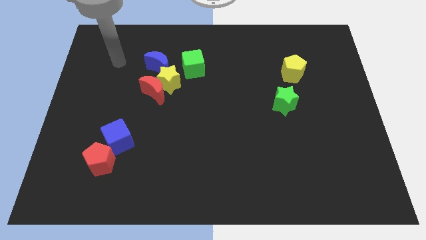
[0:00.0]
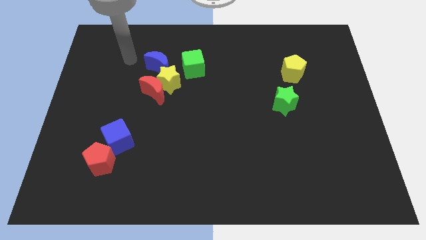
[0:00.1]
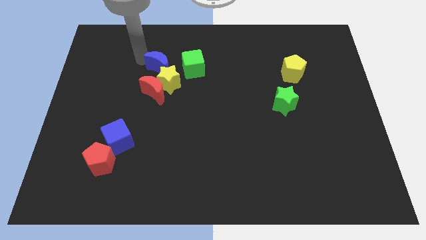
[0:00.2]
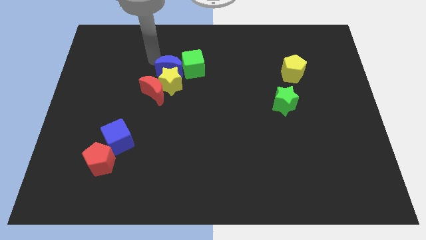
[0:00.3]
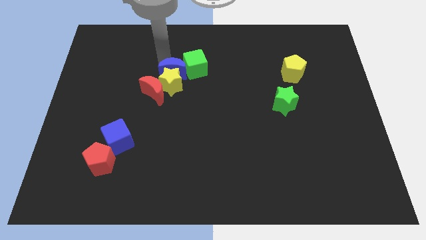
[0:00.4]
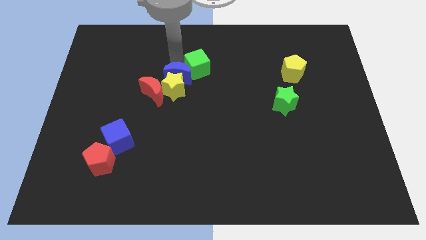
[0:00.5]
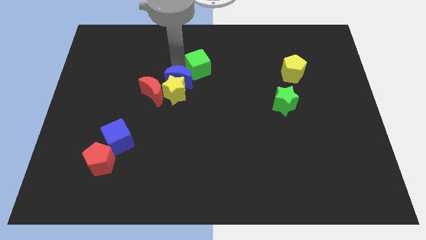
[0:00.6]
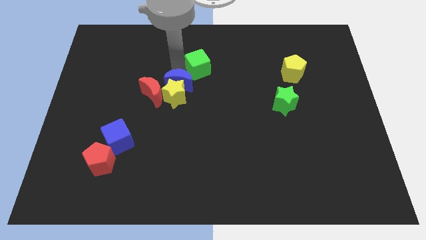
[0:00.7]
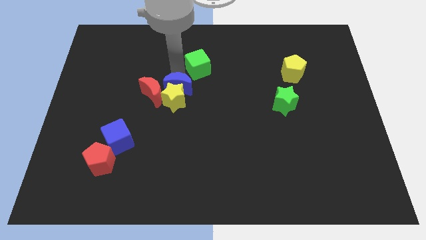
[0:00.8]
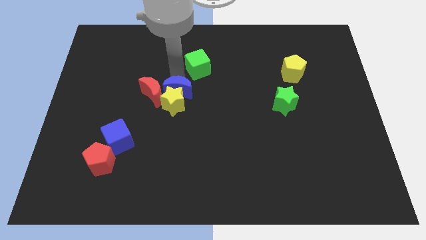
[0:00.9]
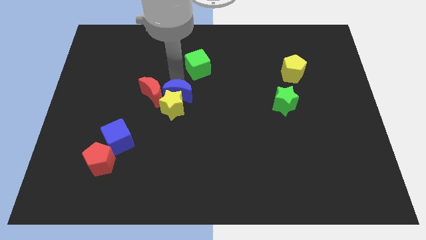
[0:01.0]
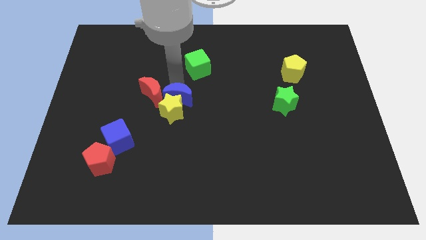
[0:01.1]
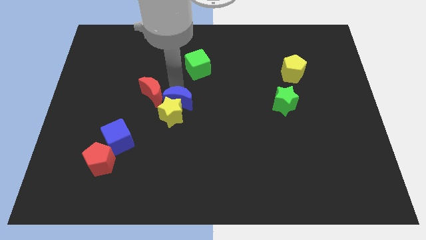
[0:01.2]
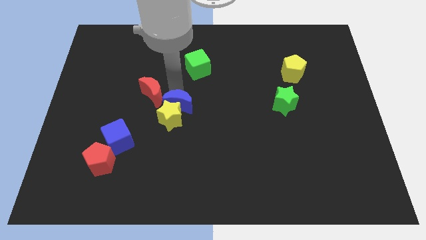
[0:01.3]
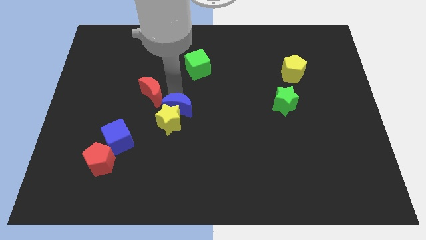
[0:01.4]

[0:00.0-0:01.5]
pull the yellow star apart from the clump

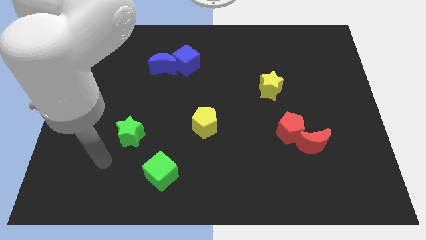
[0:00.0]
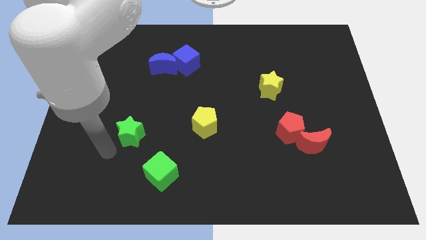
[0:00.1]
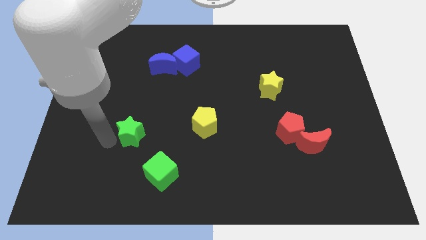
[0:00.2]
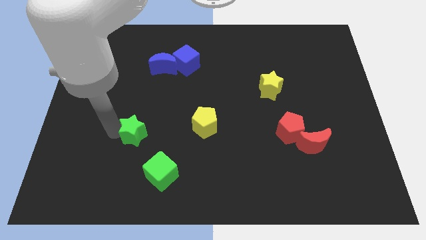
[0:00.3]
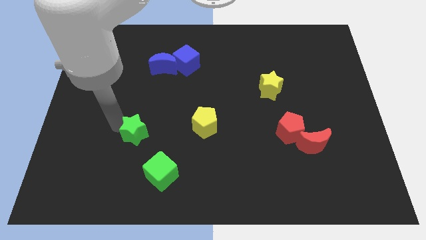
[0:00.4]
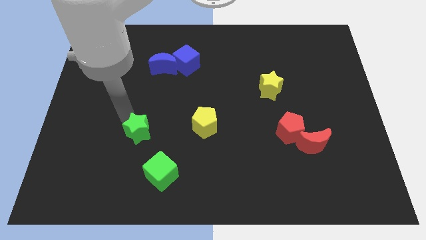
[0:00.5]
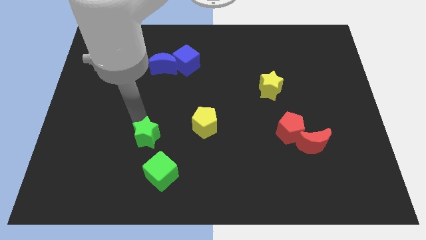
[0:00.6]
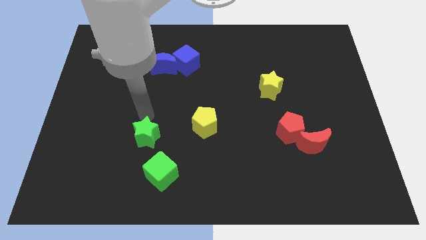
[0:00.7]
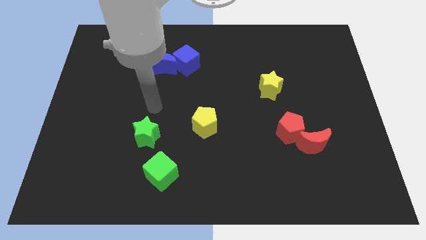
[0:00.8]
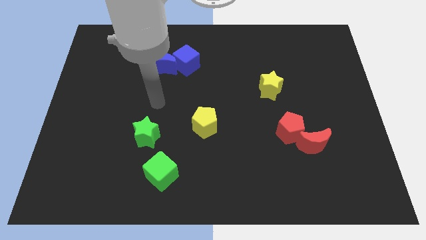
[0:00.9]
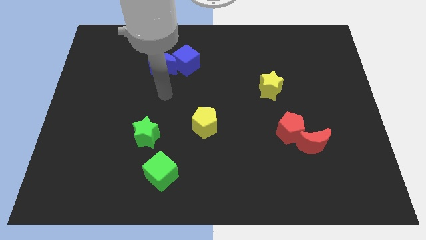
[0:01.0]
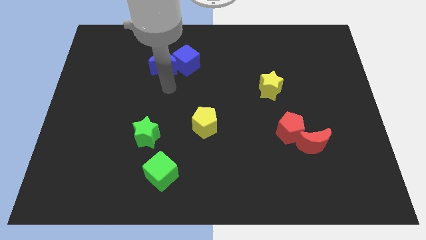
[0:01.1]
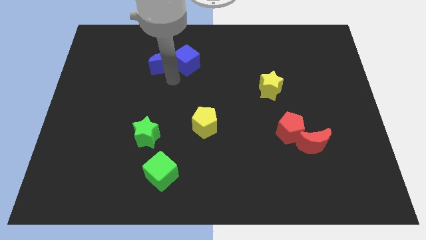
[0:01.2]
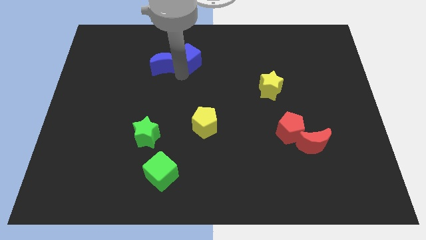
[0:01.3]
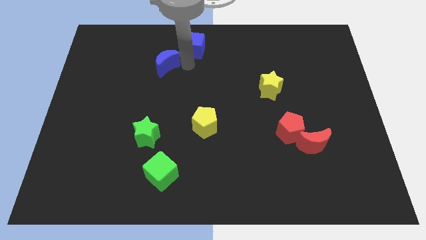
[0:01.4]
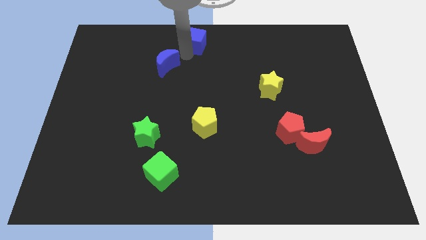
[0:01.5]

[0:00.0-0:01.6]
separate the blue moon from the blue cube

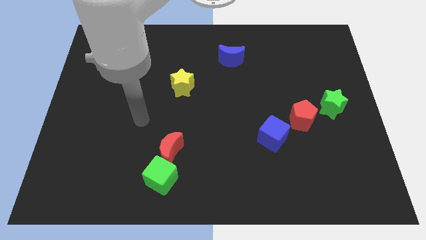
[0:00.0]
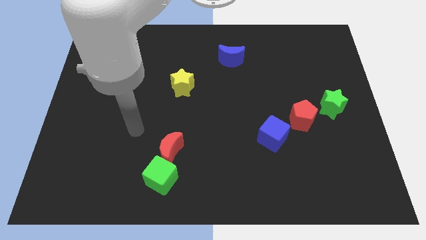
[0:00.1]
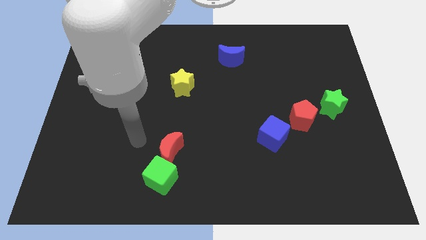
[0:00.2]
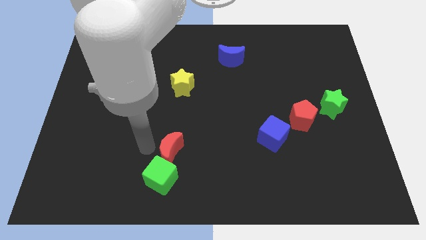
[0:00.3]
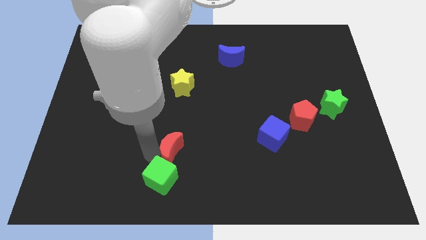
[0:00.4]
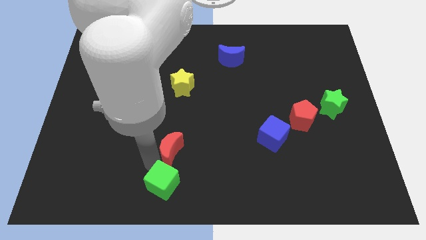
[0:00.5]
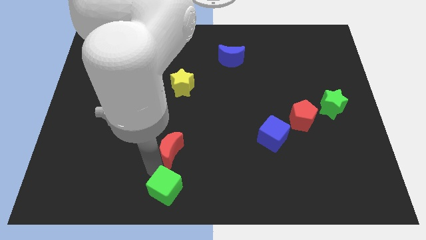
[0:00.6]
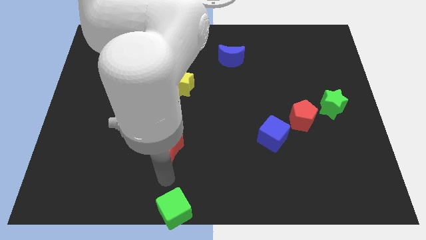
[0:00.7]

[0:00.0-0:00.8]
pull the red moon apart from the green cube

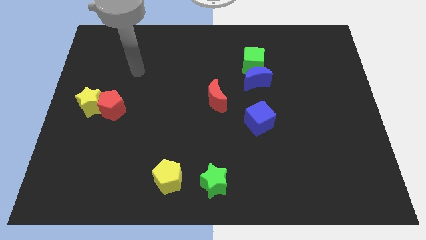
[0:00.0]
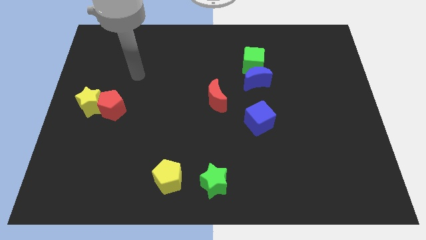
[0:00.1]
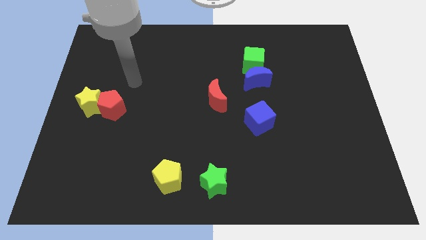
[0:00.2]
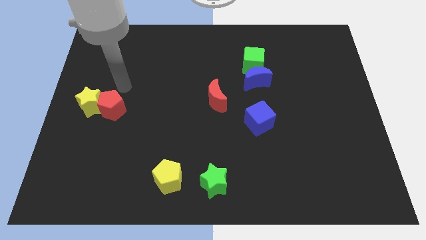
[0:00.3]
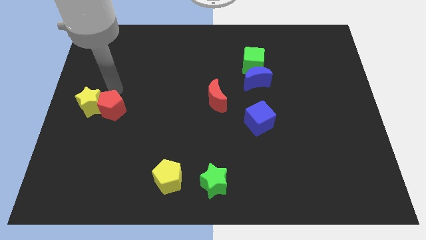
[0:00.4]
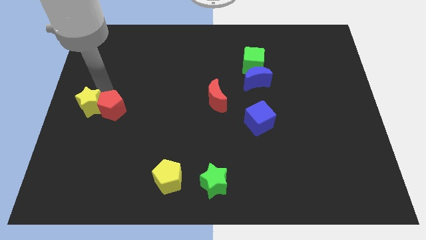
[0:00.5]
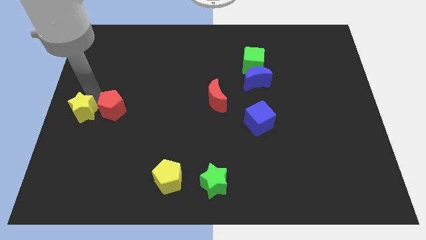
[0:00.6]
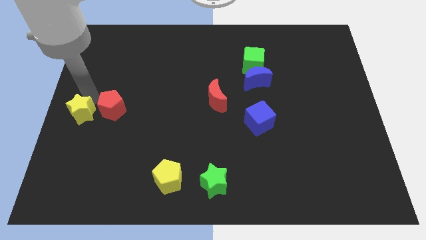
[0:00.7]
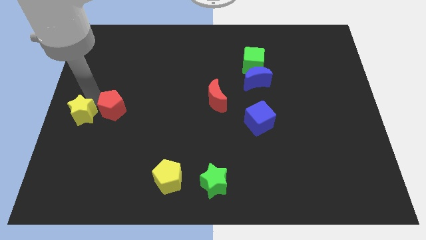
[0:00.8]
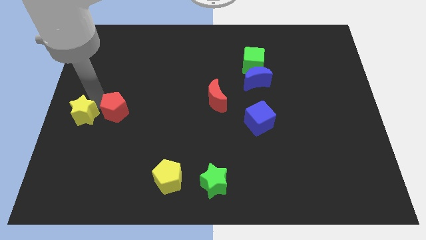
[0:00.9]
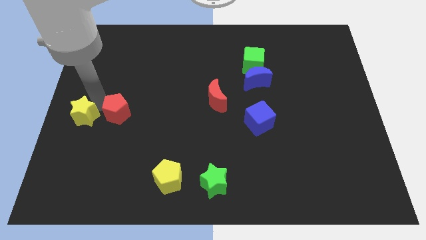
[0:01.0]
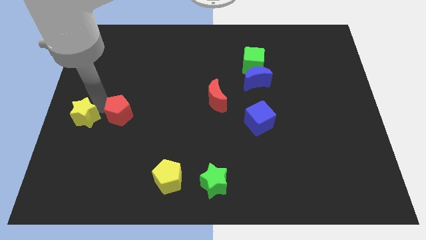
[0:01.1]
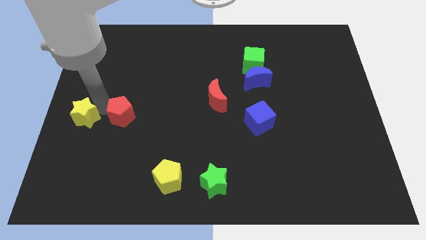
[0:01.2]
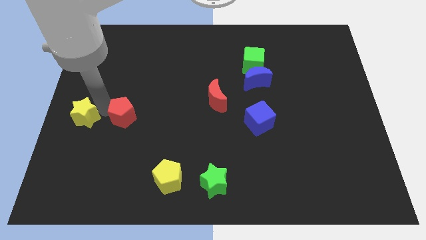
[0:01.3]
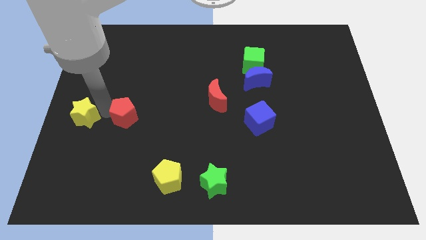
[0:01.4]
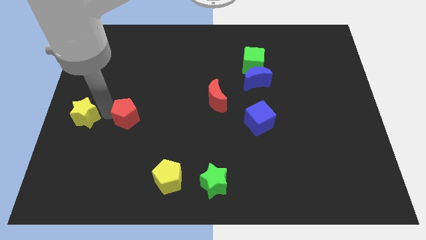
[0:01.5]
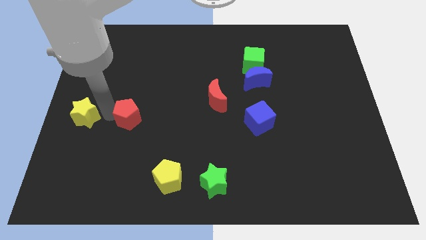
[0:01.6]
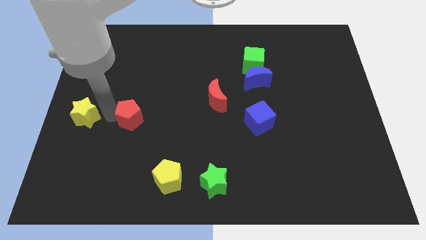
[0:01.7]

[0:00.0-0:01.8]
move the red pentagon away from the yellow star

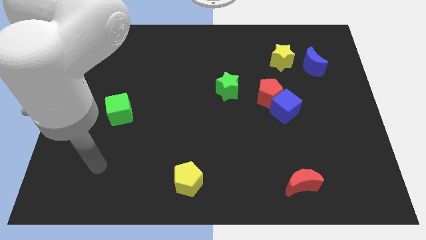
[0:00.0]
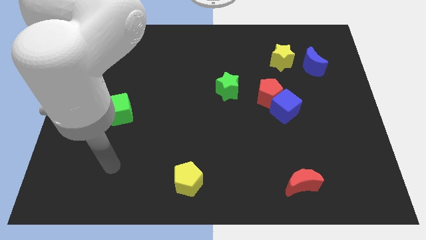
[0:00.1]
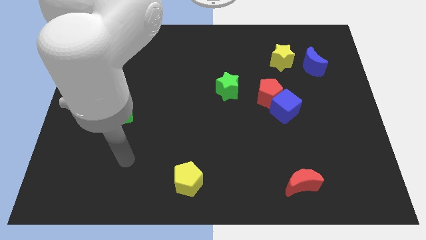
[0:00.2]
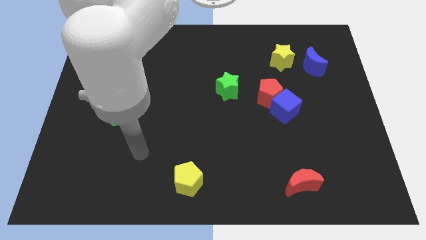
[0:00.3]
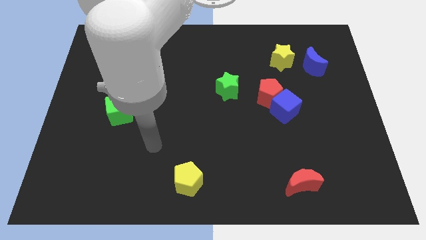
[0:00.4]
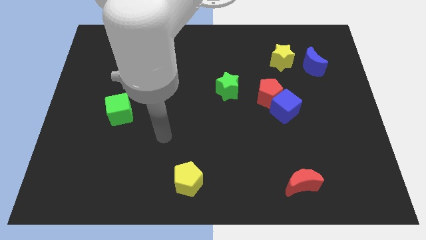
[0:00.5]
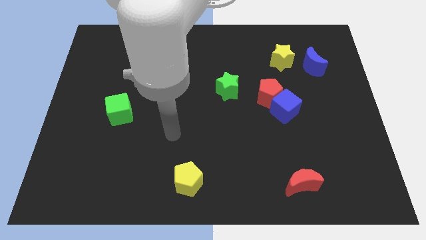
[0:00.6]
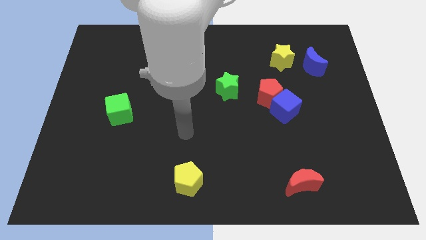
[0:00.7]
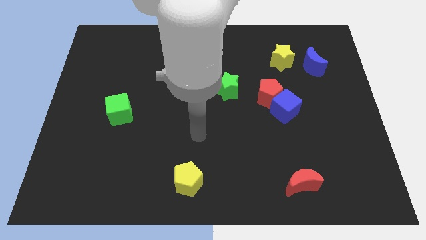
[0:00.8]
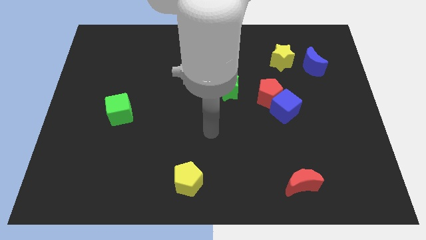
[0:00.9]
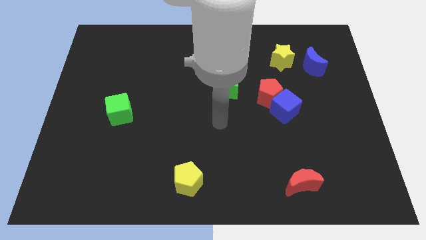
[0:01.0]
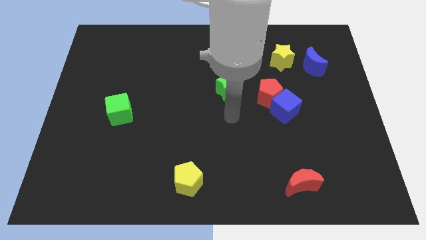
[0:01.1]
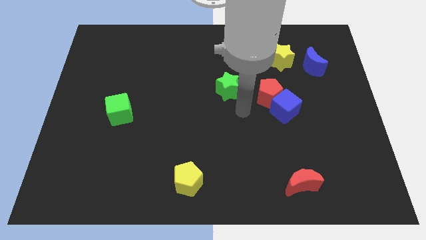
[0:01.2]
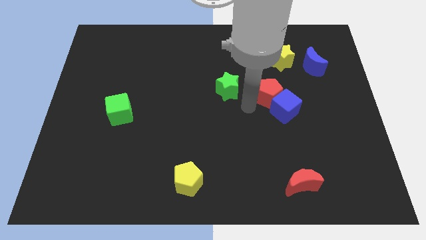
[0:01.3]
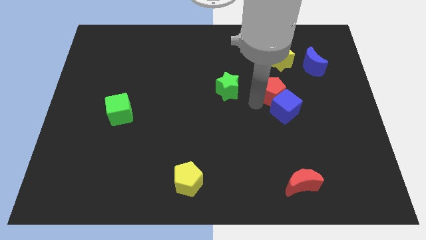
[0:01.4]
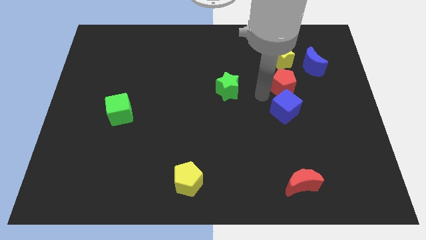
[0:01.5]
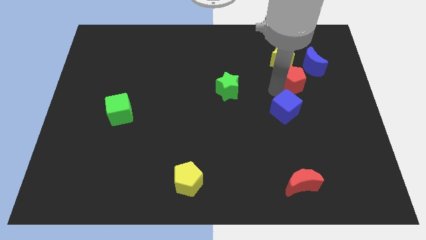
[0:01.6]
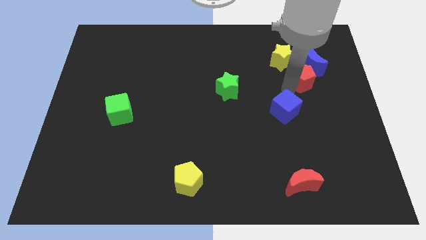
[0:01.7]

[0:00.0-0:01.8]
move the blue cube away from the red pentagon

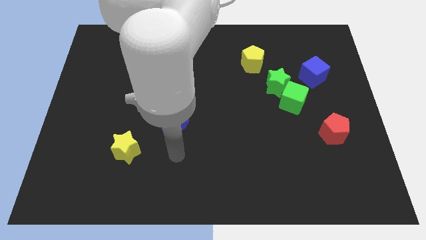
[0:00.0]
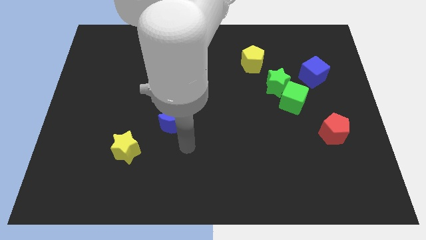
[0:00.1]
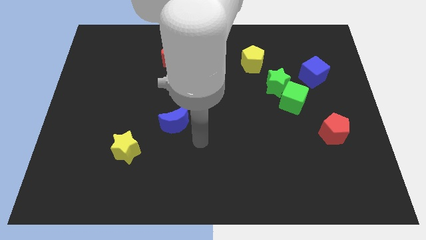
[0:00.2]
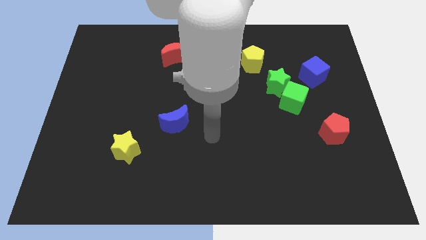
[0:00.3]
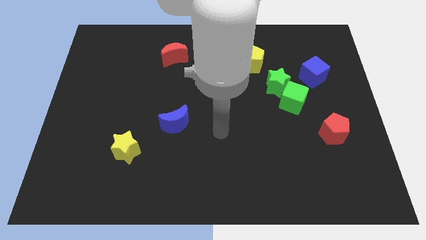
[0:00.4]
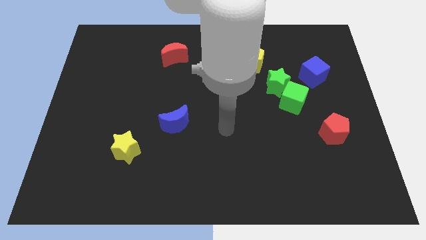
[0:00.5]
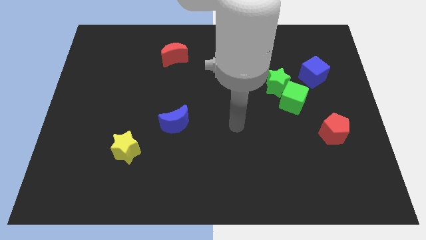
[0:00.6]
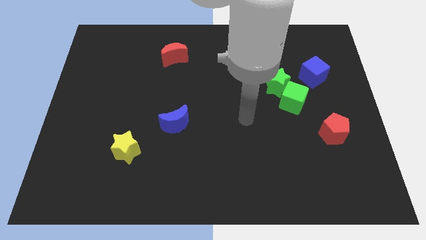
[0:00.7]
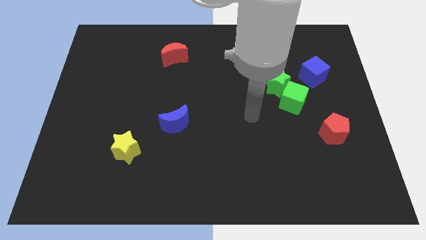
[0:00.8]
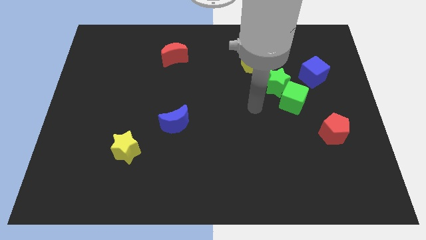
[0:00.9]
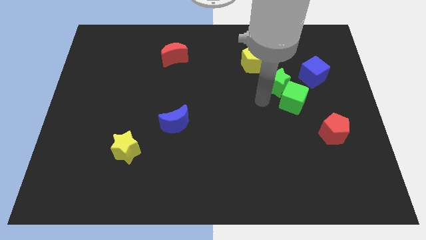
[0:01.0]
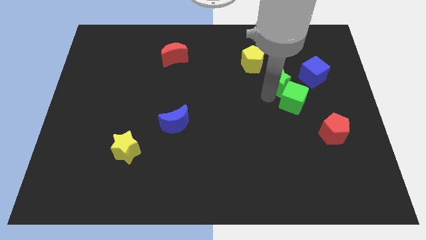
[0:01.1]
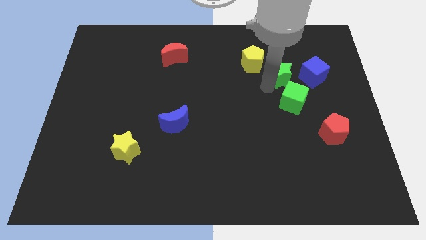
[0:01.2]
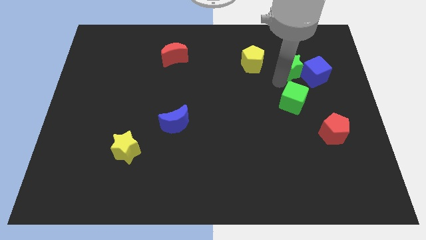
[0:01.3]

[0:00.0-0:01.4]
pull the green cube apart from the green star

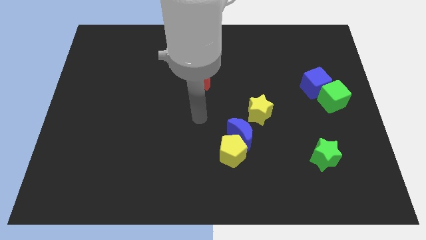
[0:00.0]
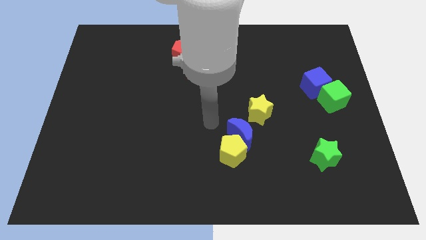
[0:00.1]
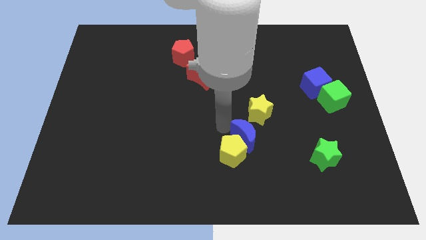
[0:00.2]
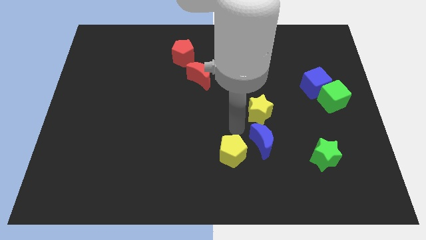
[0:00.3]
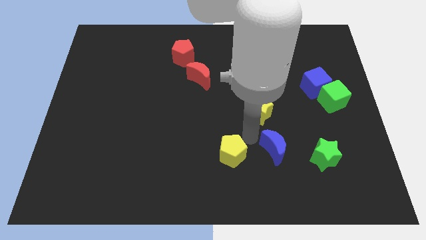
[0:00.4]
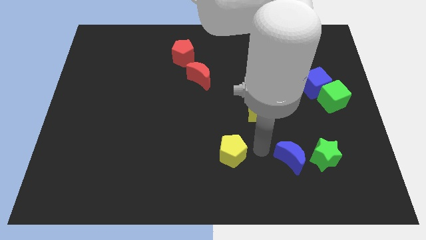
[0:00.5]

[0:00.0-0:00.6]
move the yellow pentagon away from the blue moon

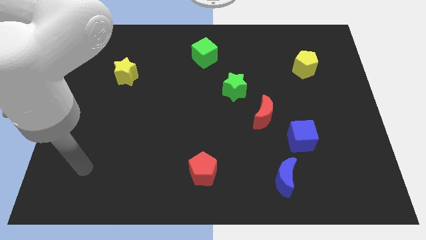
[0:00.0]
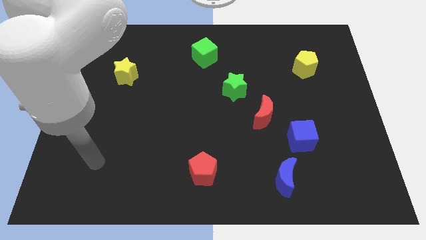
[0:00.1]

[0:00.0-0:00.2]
separate the blue cube from the red moon
